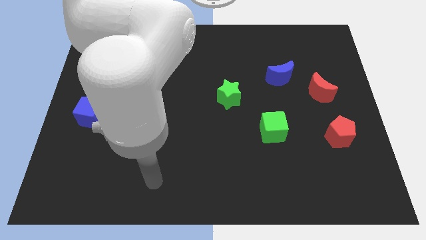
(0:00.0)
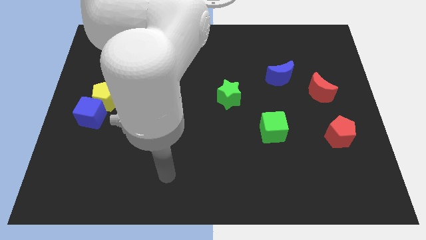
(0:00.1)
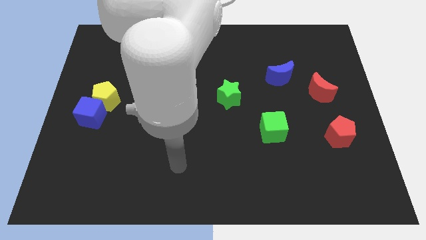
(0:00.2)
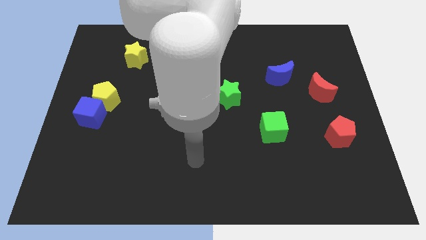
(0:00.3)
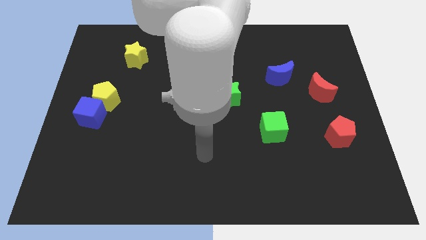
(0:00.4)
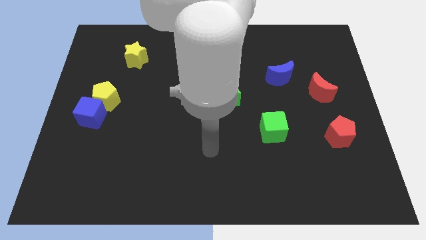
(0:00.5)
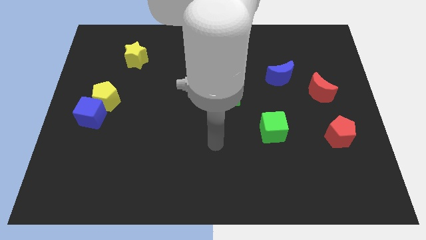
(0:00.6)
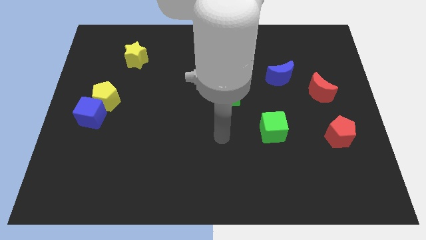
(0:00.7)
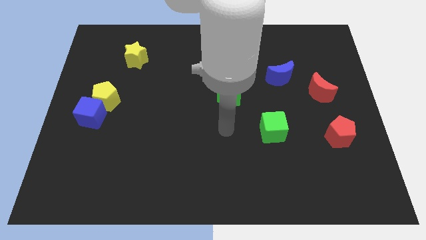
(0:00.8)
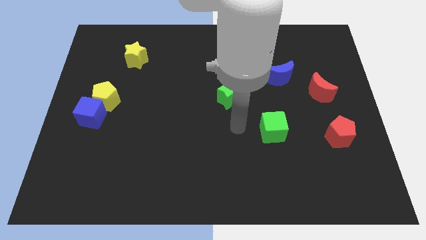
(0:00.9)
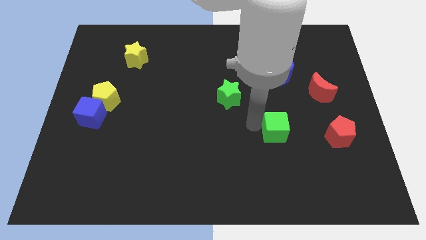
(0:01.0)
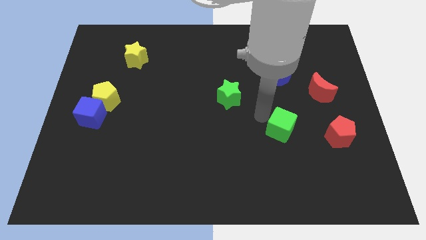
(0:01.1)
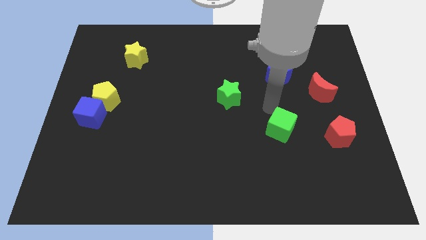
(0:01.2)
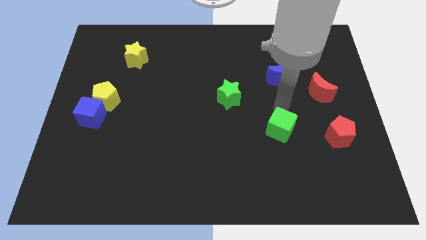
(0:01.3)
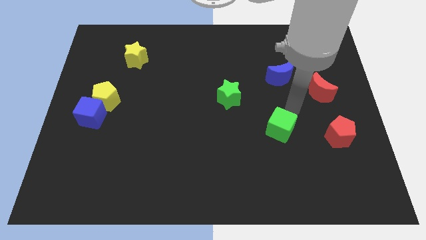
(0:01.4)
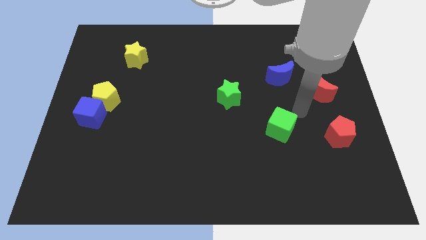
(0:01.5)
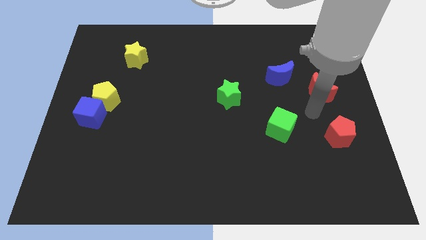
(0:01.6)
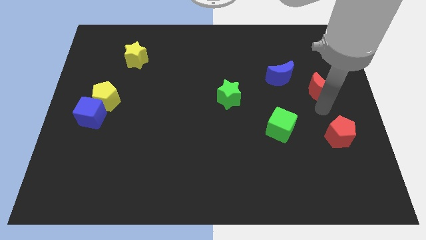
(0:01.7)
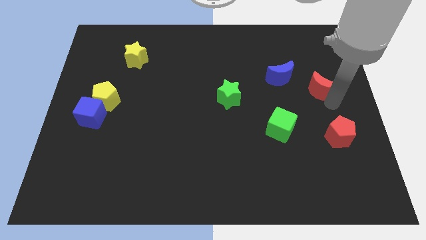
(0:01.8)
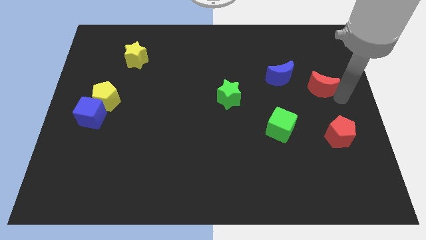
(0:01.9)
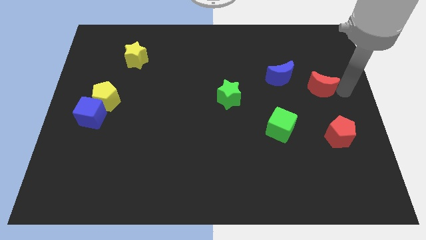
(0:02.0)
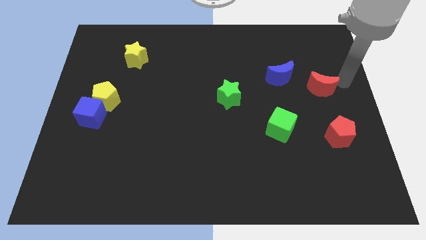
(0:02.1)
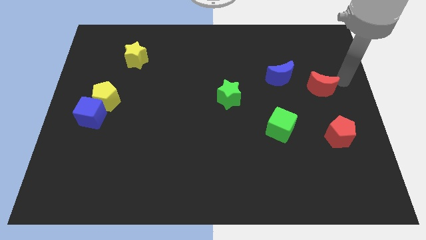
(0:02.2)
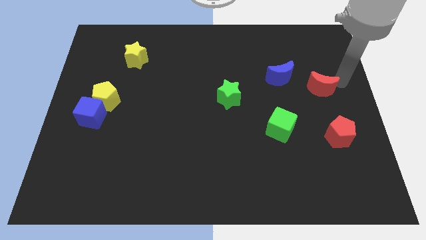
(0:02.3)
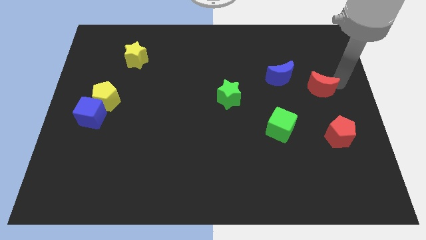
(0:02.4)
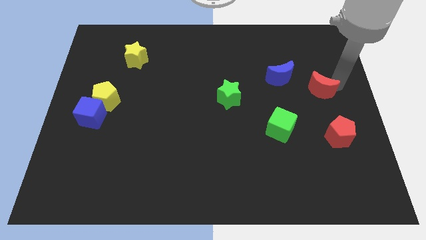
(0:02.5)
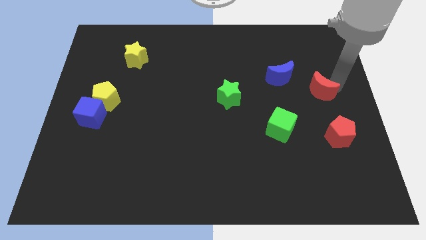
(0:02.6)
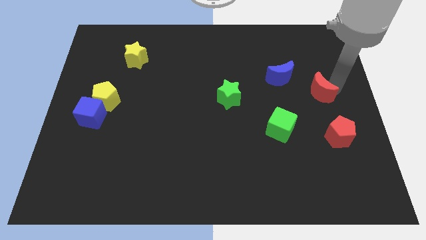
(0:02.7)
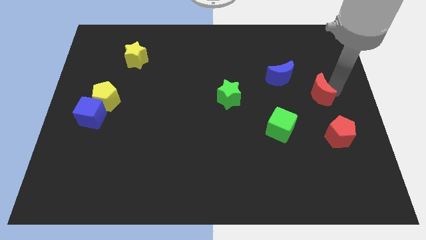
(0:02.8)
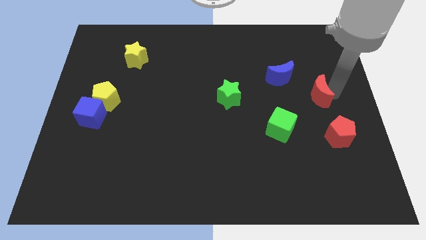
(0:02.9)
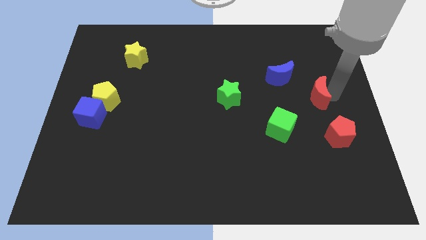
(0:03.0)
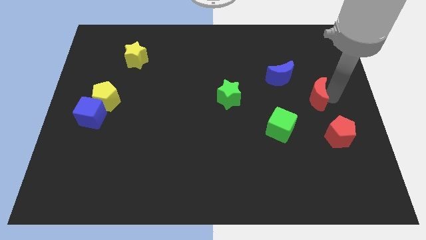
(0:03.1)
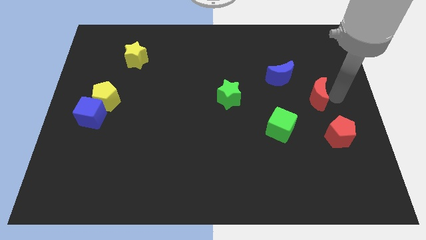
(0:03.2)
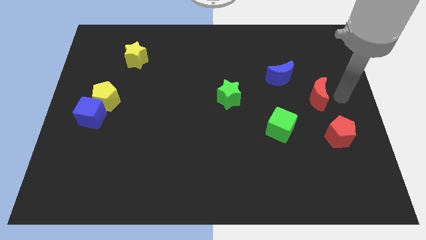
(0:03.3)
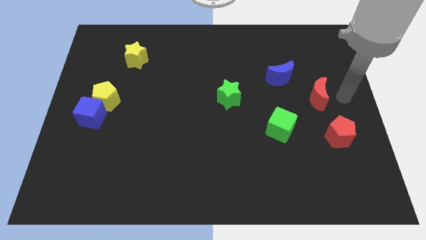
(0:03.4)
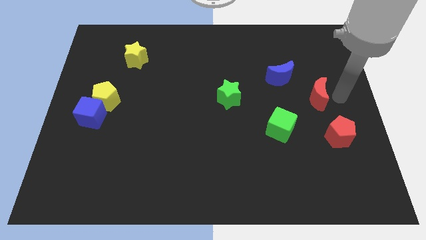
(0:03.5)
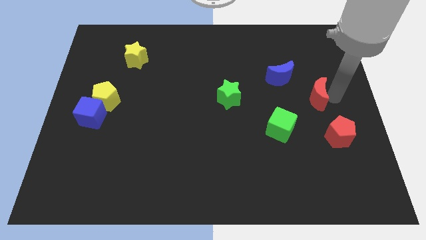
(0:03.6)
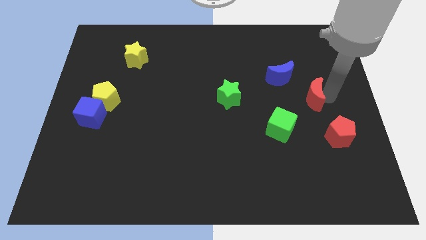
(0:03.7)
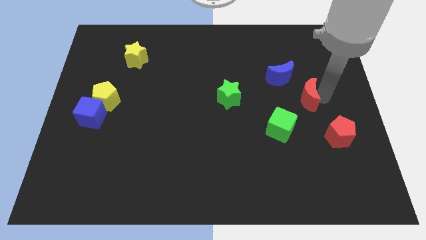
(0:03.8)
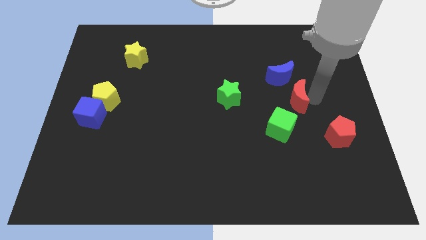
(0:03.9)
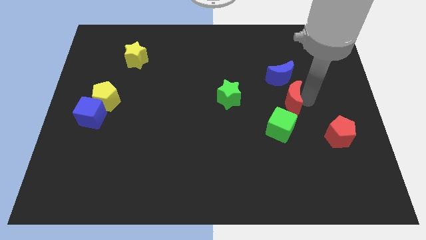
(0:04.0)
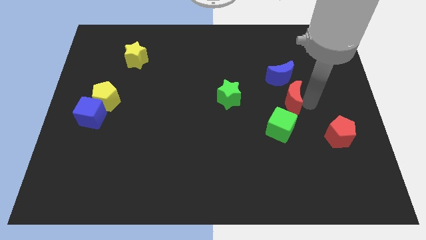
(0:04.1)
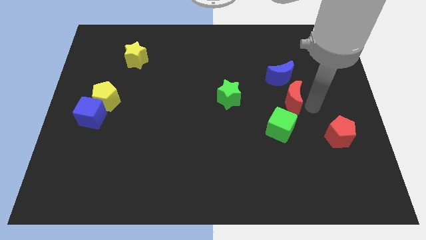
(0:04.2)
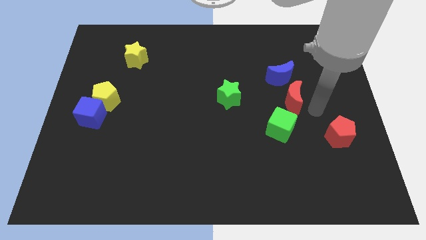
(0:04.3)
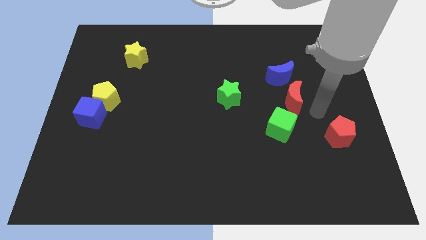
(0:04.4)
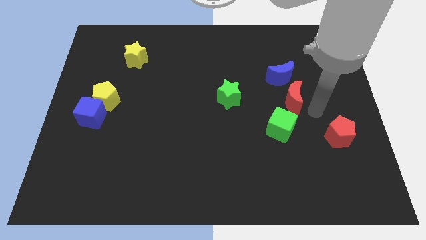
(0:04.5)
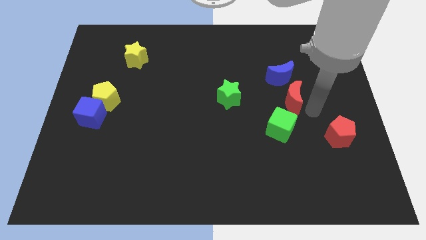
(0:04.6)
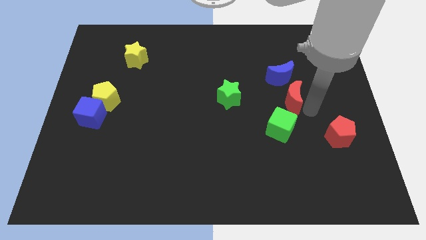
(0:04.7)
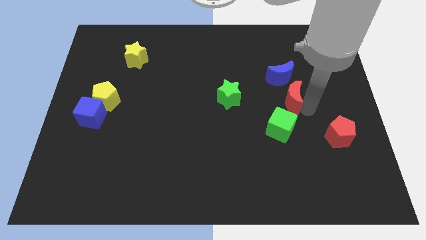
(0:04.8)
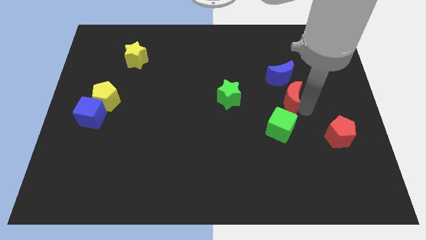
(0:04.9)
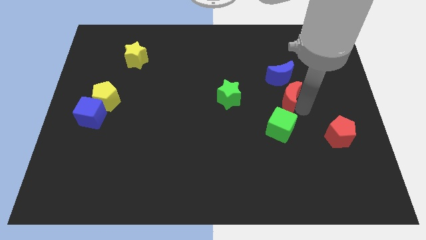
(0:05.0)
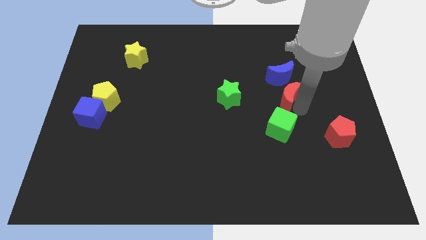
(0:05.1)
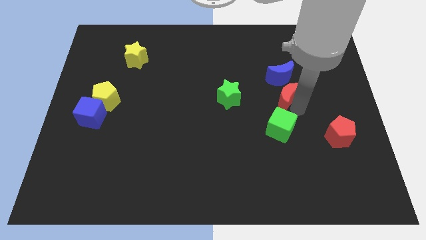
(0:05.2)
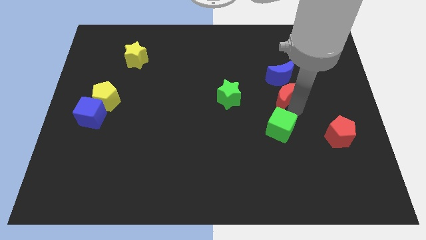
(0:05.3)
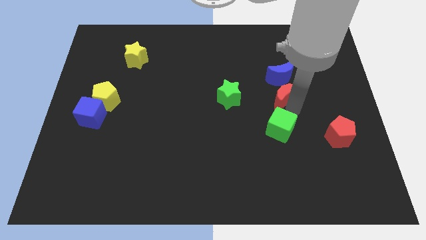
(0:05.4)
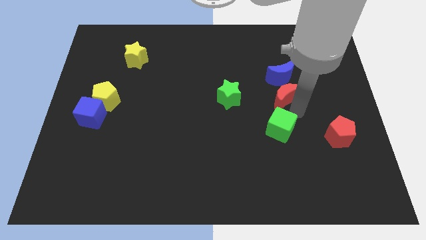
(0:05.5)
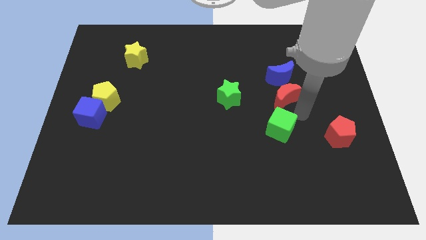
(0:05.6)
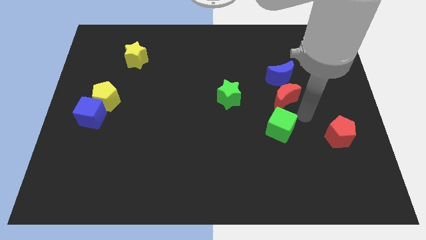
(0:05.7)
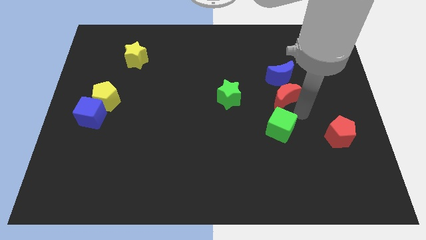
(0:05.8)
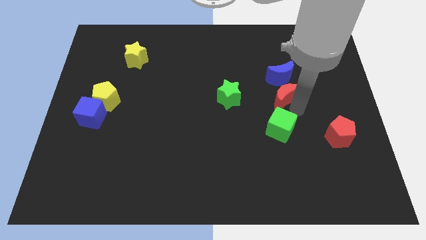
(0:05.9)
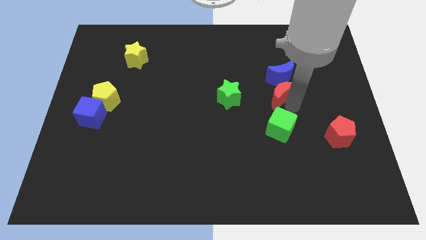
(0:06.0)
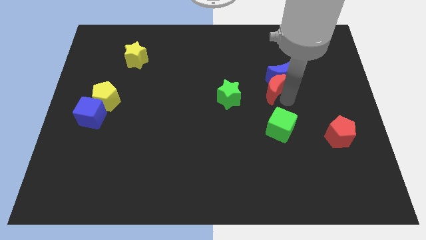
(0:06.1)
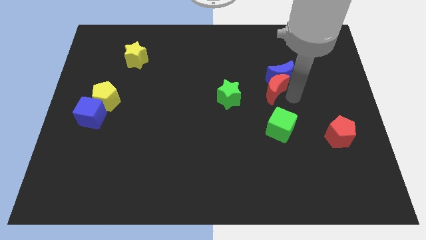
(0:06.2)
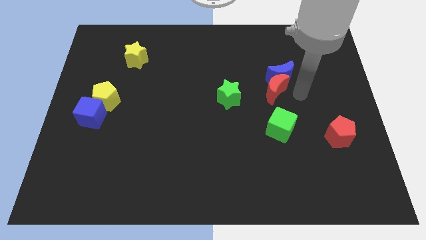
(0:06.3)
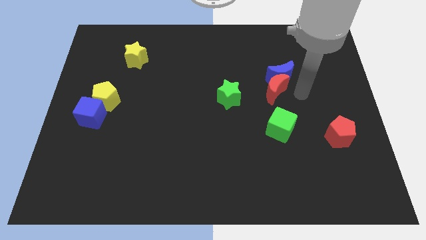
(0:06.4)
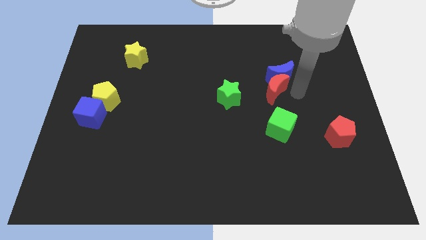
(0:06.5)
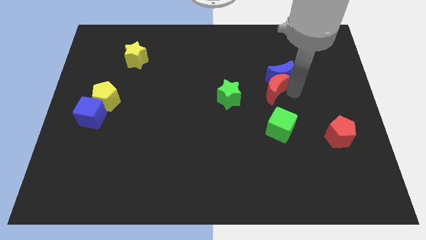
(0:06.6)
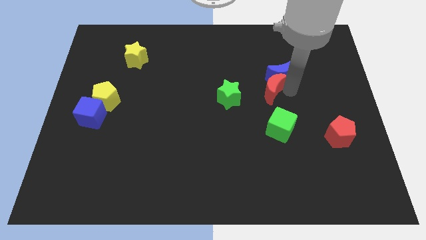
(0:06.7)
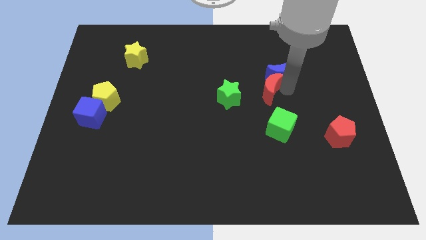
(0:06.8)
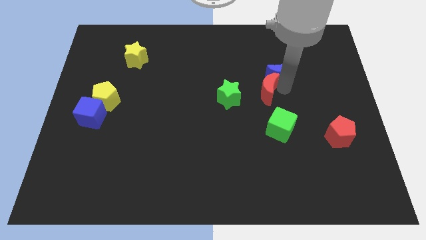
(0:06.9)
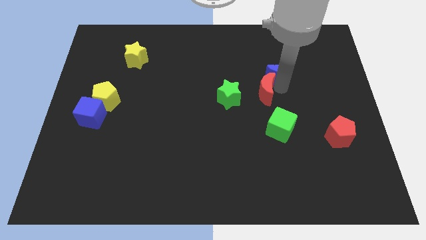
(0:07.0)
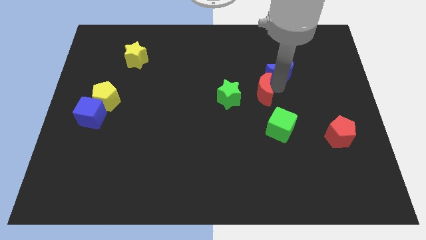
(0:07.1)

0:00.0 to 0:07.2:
slide the red moon to the center of the board

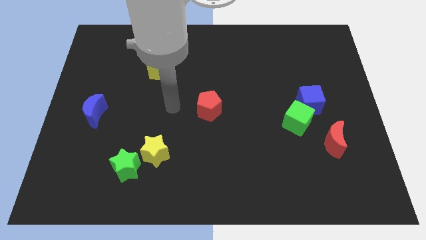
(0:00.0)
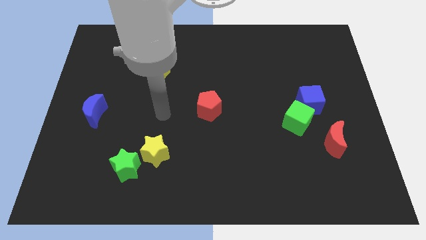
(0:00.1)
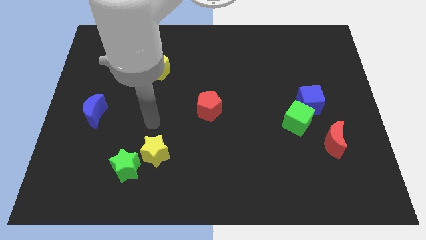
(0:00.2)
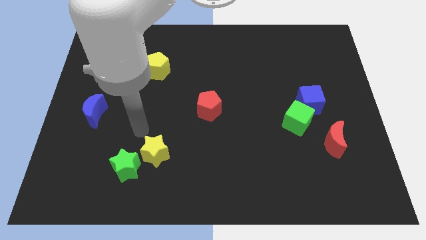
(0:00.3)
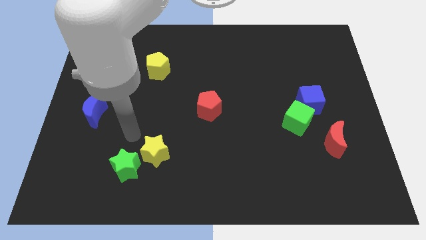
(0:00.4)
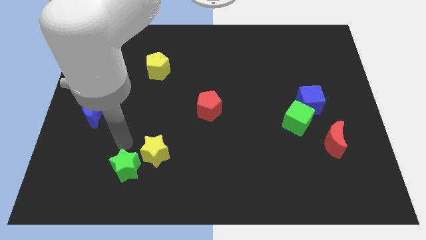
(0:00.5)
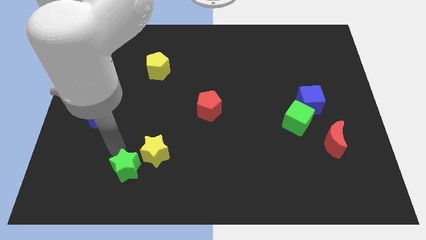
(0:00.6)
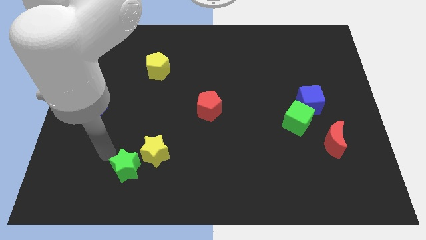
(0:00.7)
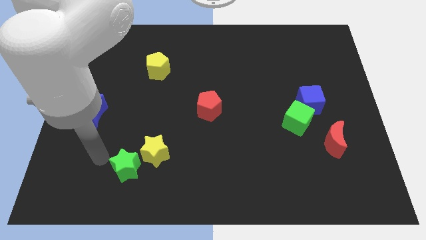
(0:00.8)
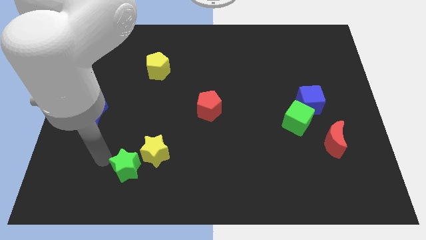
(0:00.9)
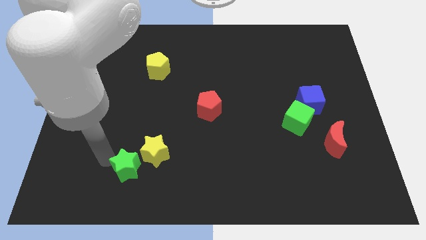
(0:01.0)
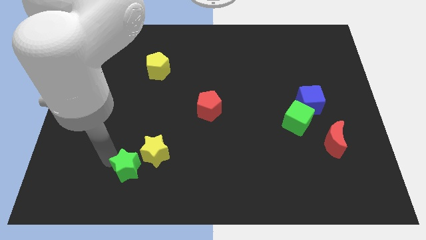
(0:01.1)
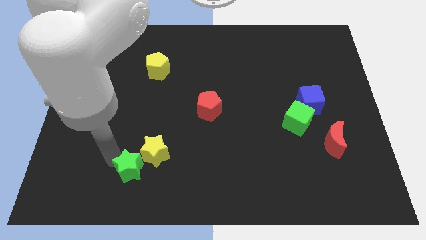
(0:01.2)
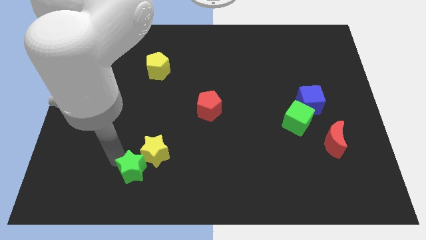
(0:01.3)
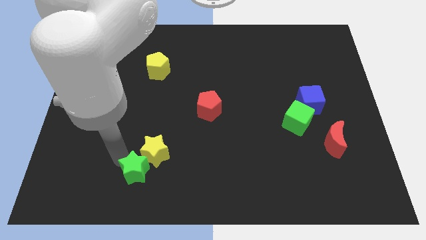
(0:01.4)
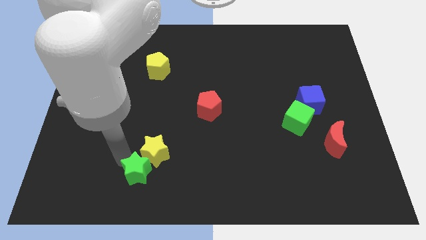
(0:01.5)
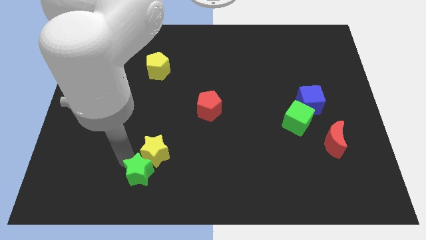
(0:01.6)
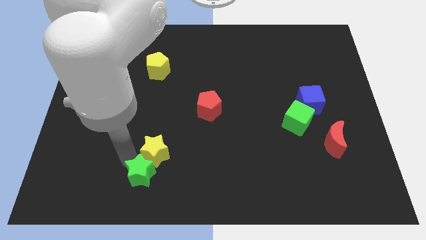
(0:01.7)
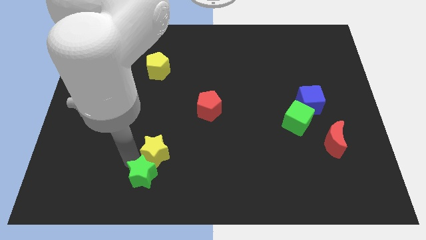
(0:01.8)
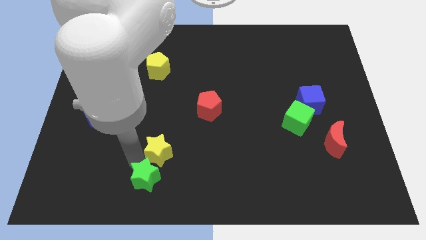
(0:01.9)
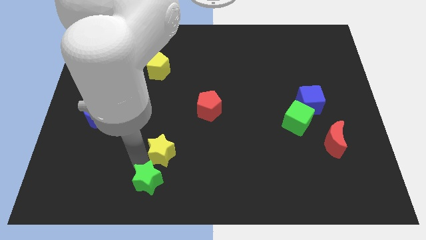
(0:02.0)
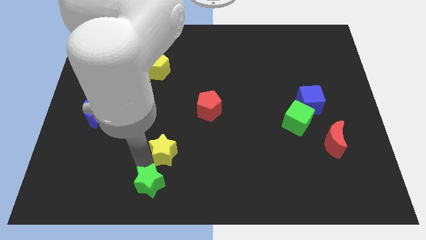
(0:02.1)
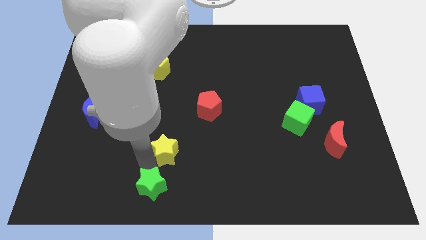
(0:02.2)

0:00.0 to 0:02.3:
slide the green star to the bottom side
